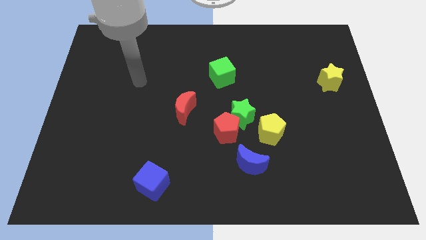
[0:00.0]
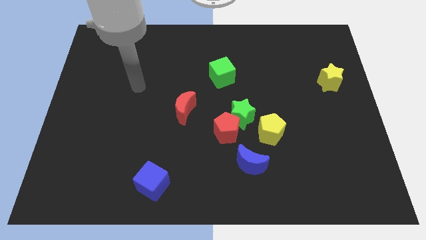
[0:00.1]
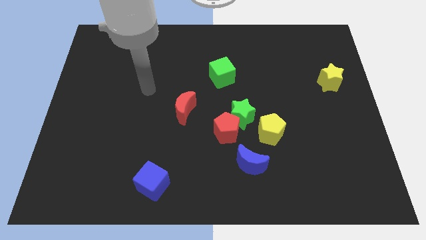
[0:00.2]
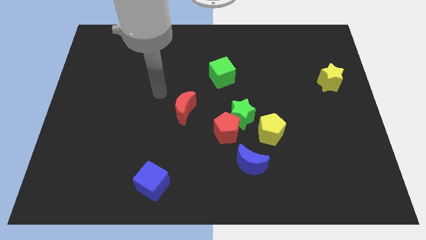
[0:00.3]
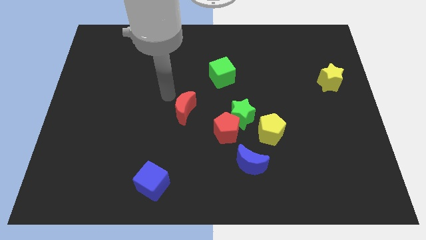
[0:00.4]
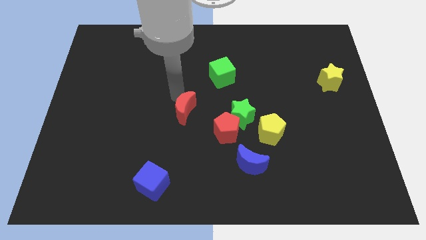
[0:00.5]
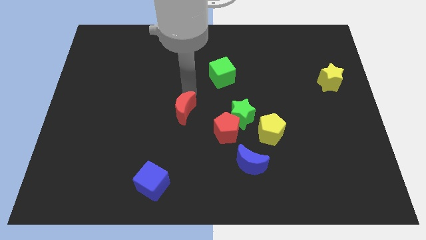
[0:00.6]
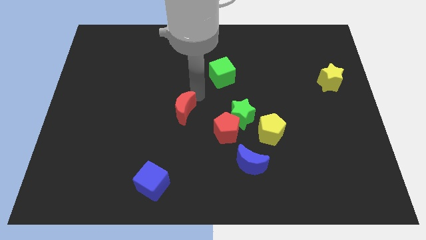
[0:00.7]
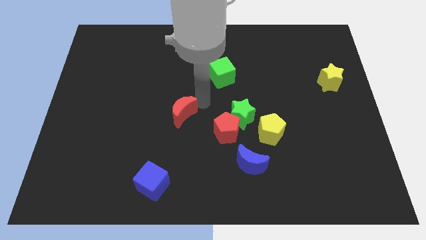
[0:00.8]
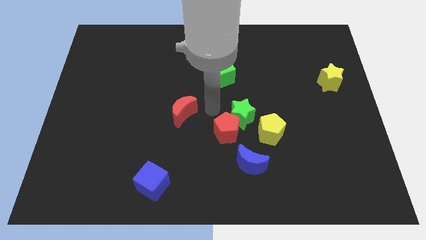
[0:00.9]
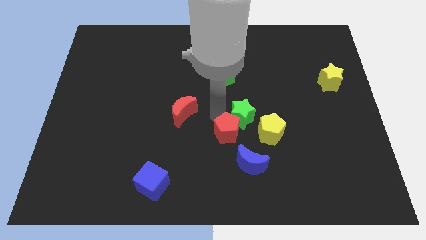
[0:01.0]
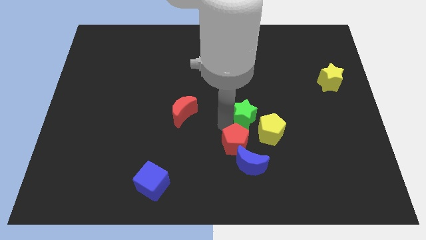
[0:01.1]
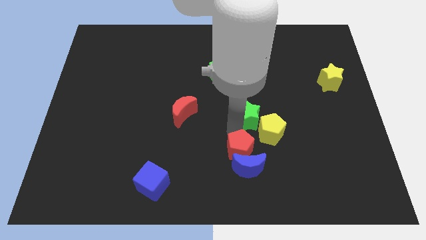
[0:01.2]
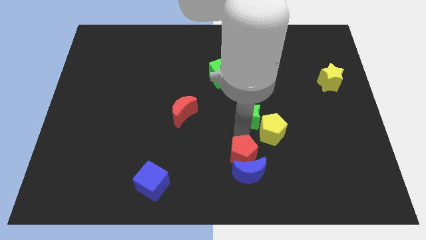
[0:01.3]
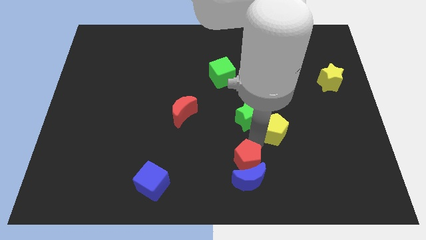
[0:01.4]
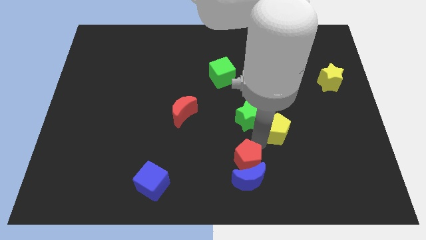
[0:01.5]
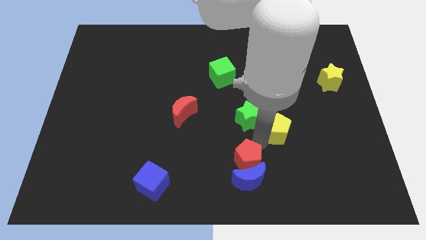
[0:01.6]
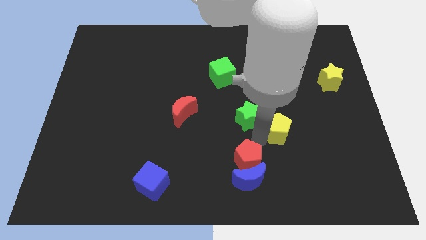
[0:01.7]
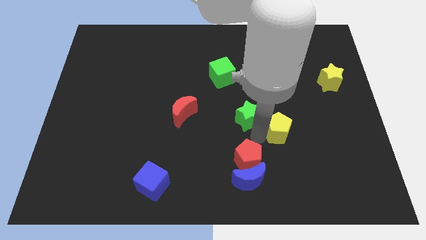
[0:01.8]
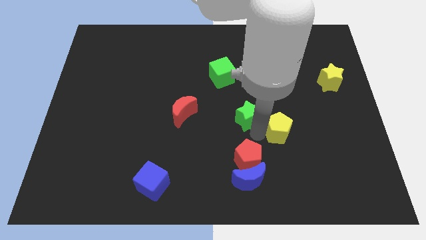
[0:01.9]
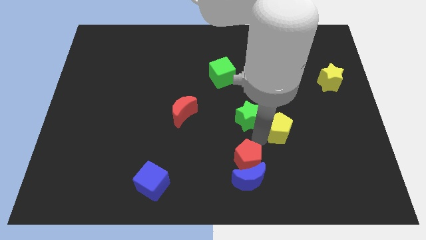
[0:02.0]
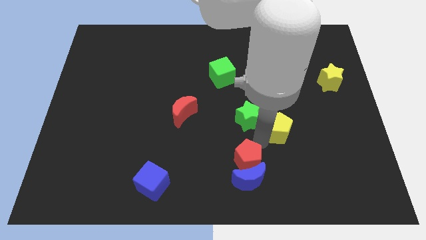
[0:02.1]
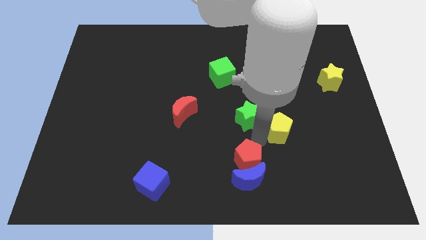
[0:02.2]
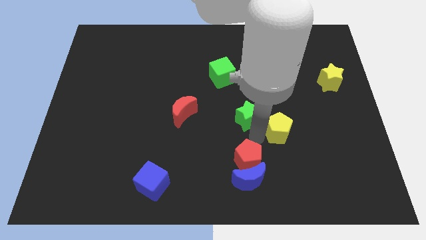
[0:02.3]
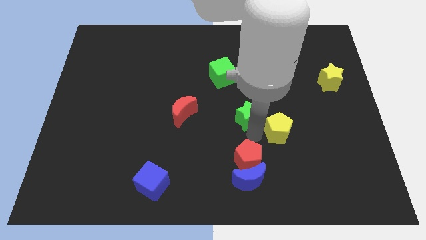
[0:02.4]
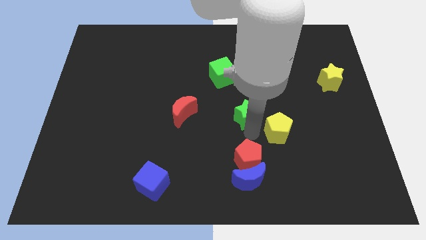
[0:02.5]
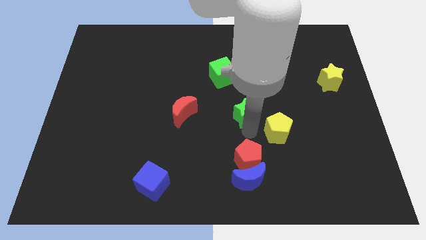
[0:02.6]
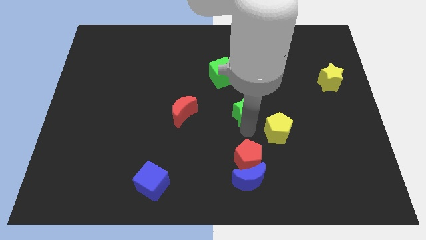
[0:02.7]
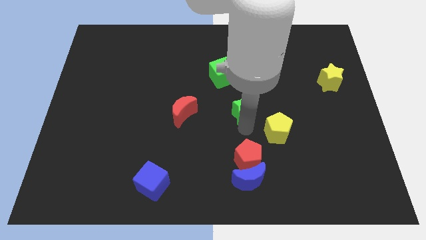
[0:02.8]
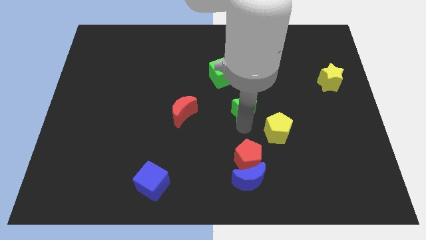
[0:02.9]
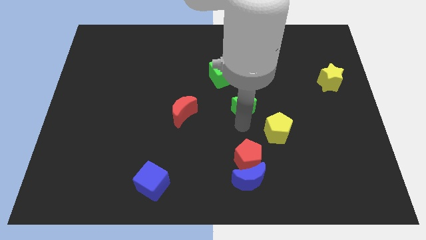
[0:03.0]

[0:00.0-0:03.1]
separate the green star from the red pentagon and yellow pentagon

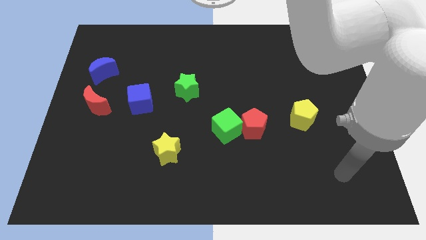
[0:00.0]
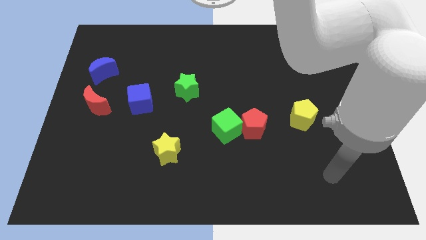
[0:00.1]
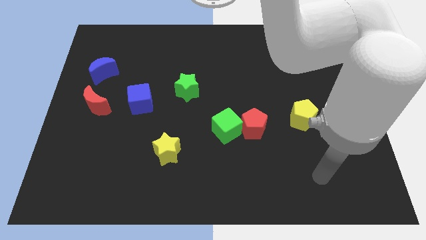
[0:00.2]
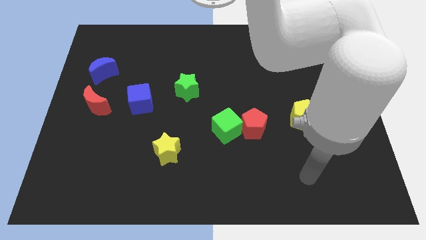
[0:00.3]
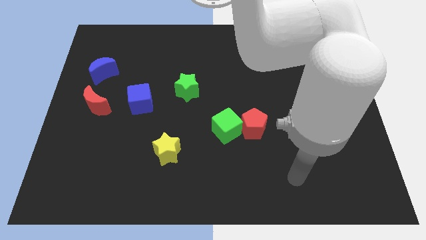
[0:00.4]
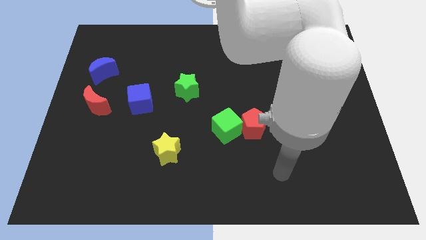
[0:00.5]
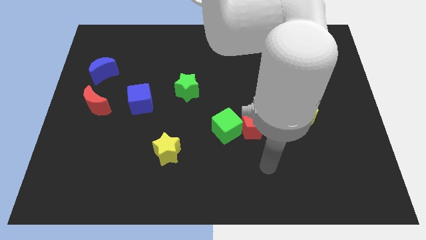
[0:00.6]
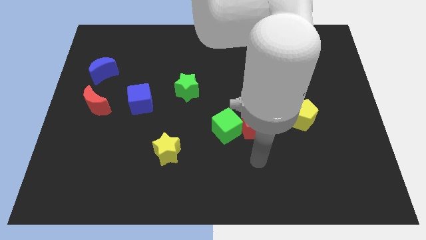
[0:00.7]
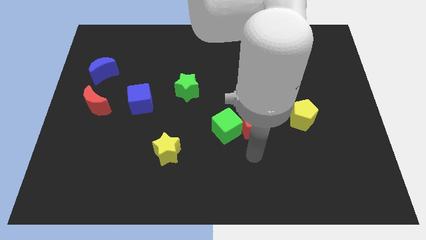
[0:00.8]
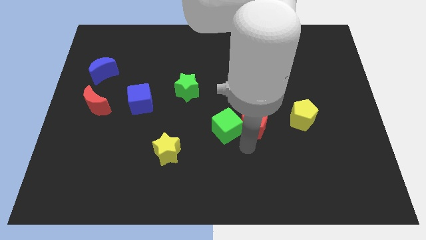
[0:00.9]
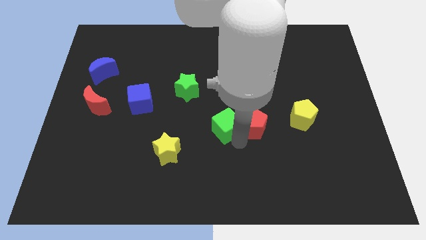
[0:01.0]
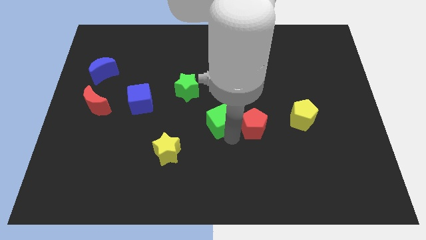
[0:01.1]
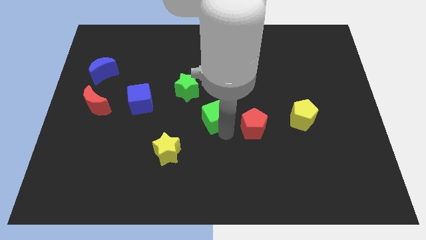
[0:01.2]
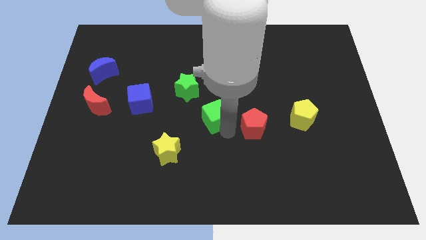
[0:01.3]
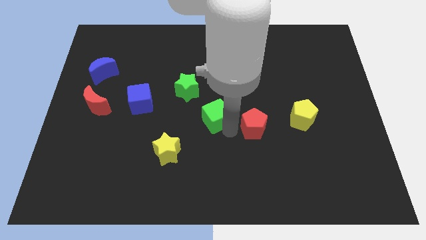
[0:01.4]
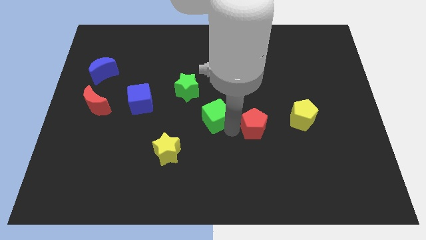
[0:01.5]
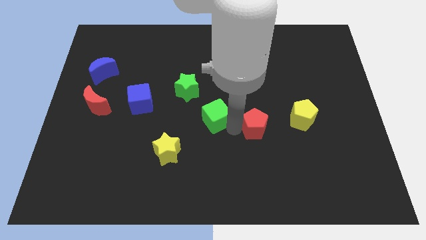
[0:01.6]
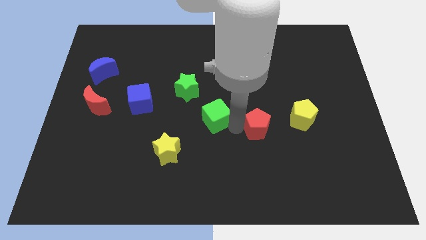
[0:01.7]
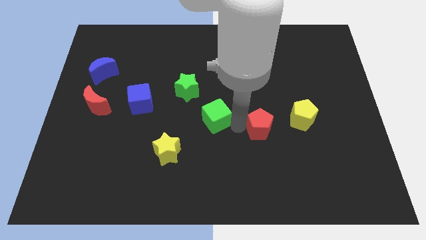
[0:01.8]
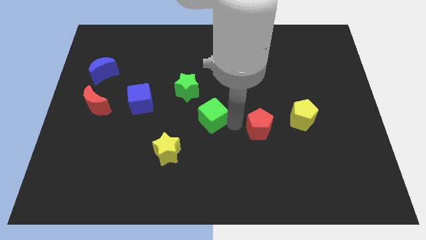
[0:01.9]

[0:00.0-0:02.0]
pull the red pentagon apart from the green cube

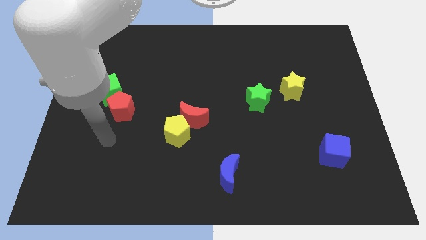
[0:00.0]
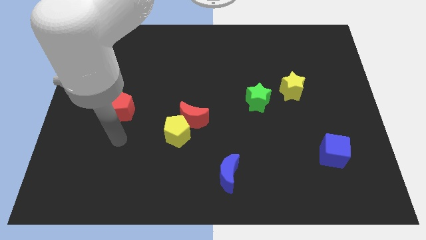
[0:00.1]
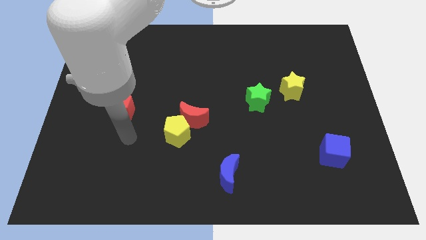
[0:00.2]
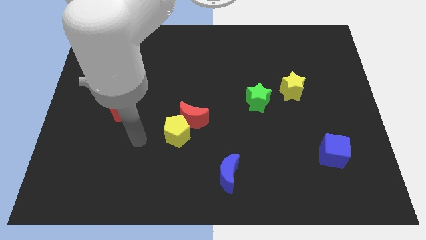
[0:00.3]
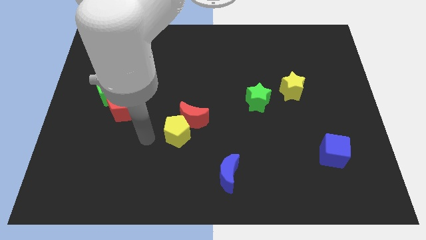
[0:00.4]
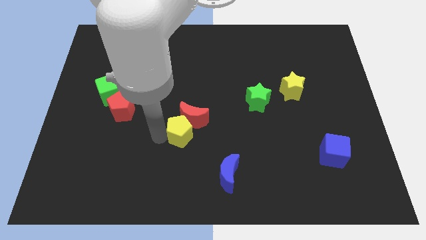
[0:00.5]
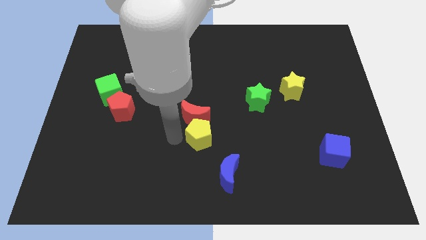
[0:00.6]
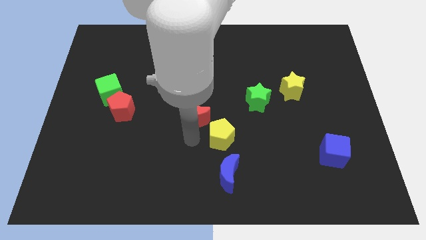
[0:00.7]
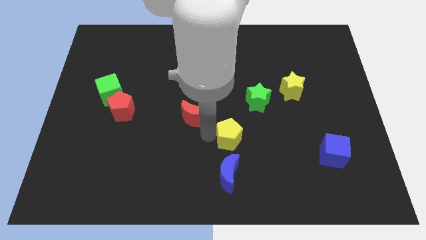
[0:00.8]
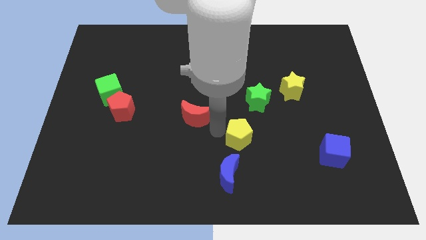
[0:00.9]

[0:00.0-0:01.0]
separate the red moon from the yellow pentagon

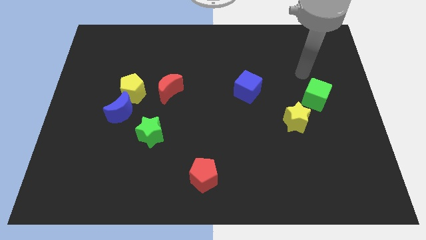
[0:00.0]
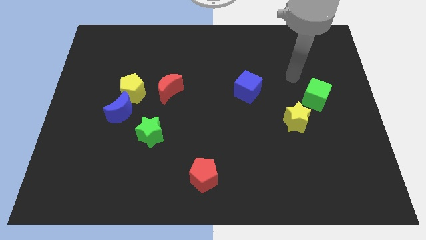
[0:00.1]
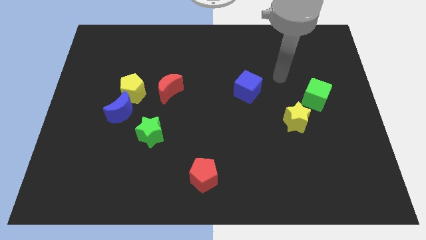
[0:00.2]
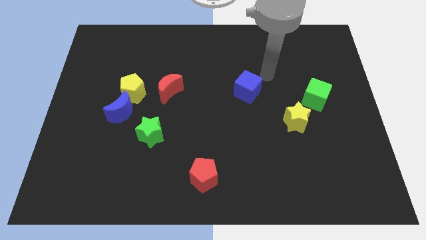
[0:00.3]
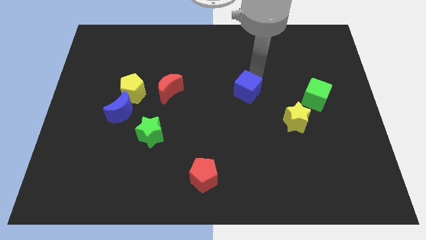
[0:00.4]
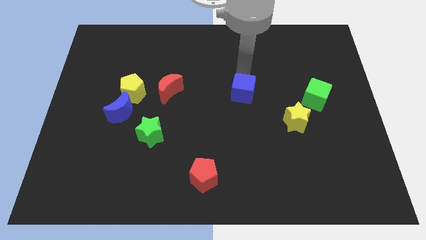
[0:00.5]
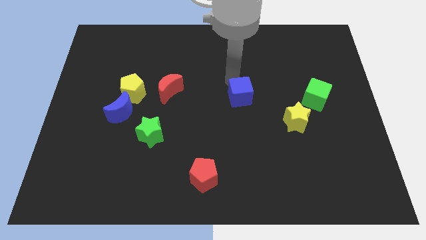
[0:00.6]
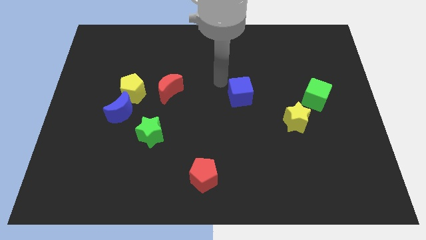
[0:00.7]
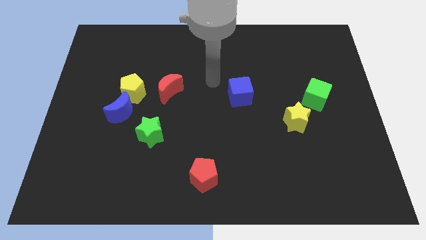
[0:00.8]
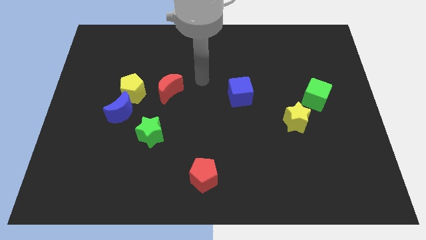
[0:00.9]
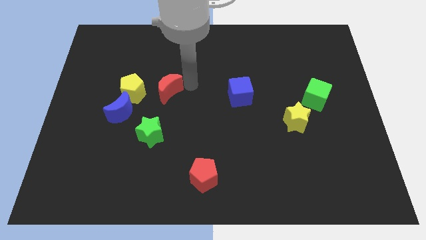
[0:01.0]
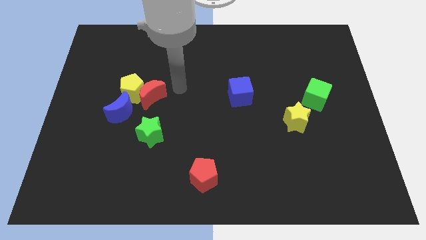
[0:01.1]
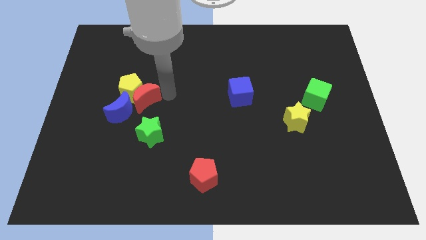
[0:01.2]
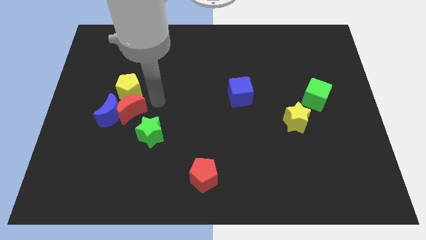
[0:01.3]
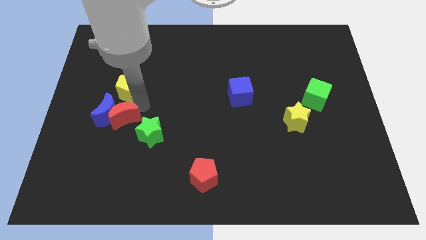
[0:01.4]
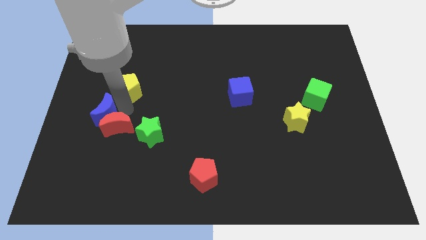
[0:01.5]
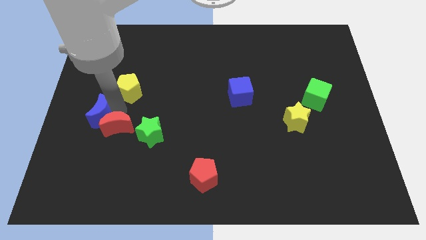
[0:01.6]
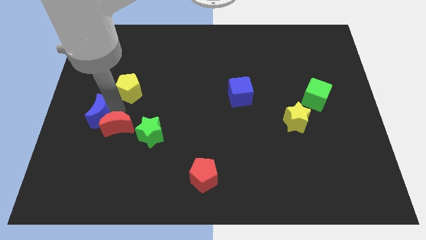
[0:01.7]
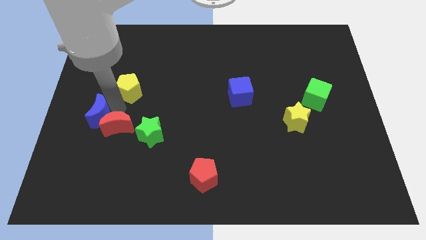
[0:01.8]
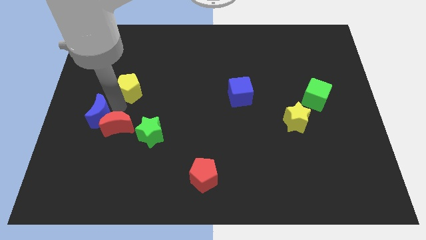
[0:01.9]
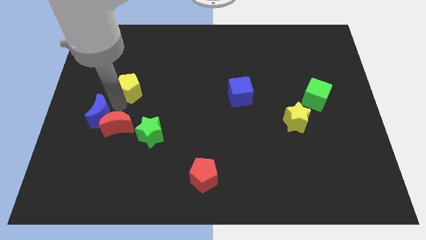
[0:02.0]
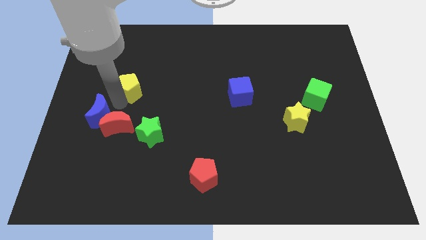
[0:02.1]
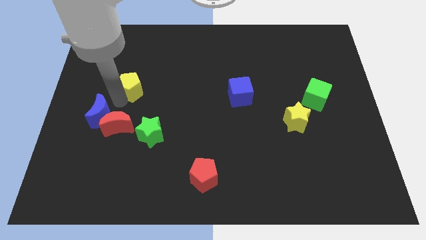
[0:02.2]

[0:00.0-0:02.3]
move the yellow pentagon away from the blue moon and red moon

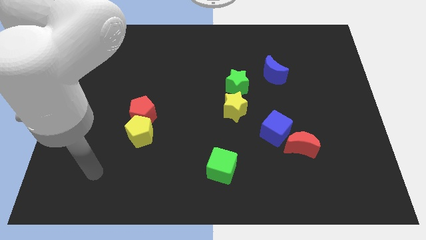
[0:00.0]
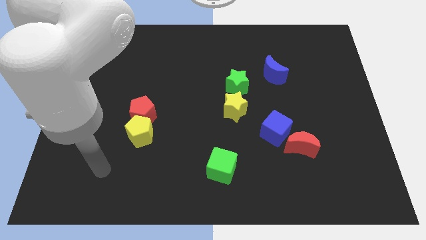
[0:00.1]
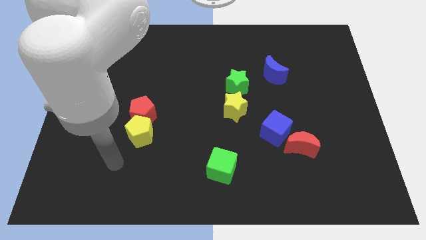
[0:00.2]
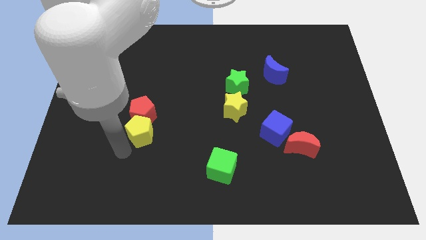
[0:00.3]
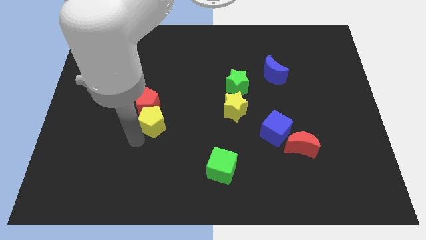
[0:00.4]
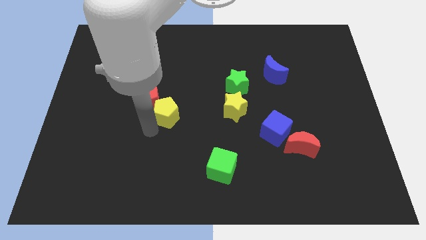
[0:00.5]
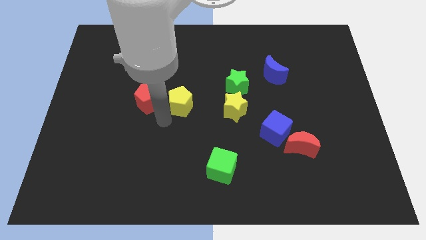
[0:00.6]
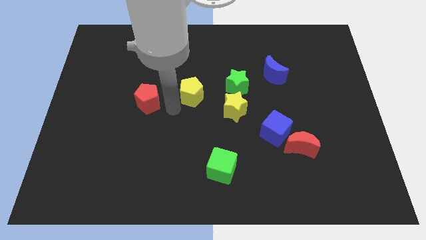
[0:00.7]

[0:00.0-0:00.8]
separate the red pentagon from the yellow pentagon

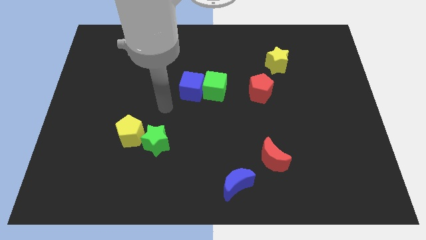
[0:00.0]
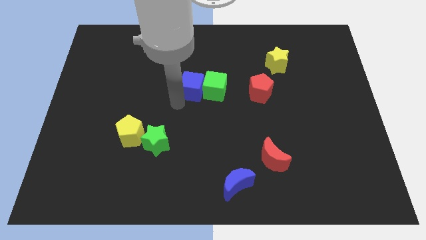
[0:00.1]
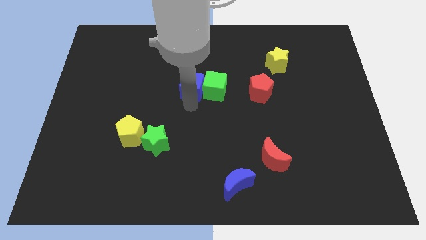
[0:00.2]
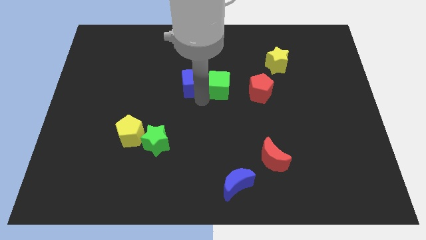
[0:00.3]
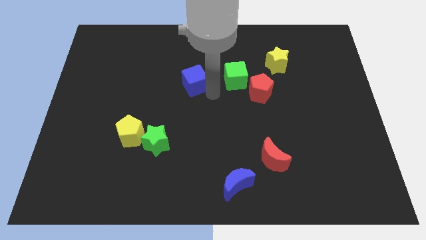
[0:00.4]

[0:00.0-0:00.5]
separate the blue cube from the green cube
